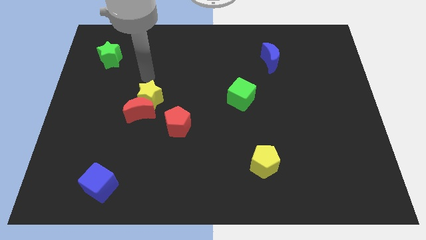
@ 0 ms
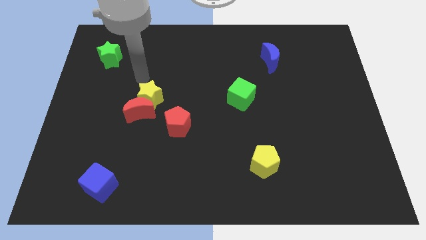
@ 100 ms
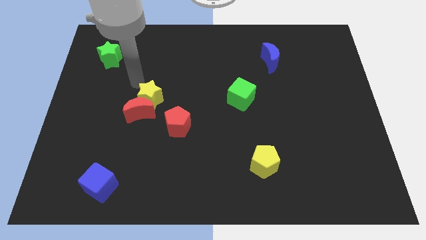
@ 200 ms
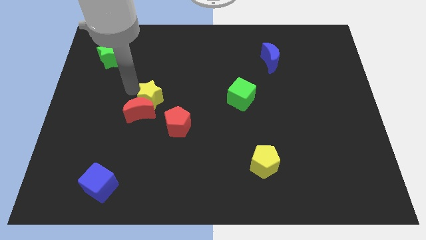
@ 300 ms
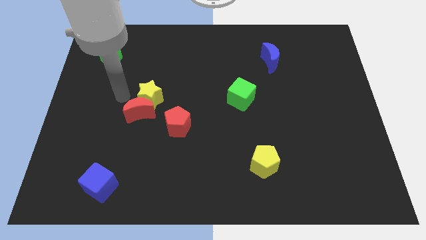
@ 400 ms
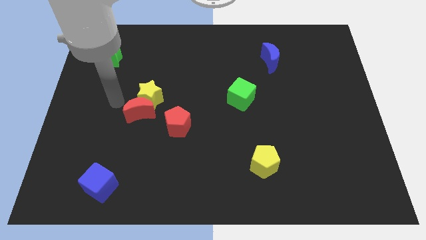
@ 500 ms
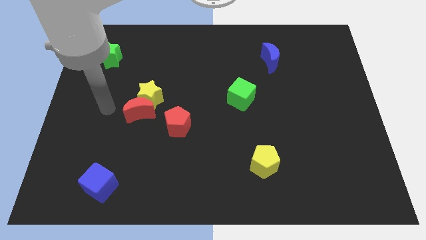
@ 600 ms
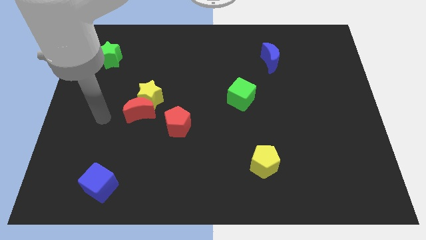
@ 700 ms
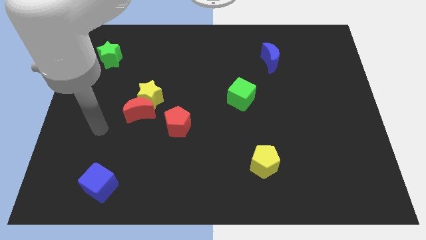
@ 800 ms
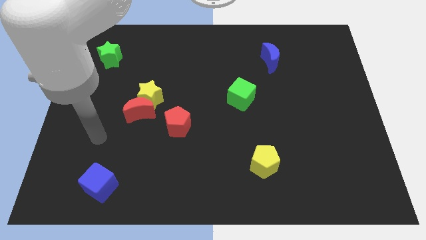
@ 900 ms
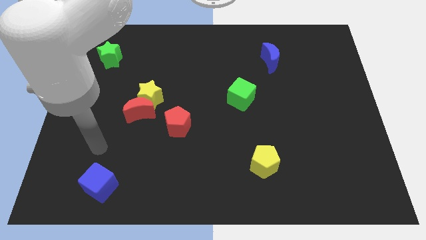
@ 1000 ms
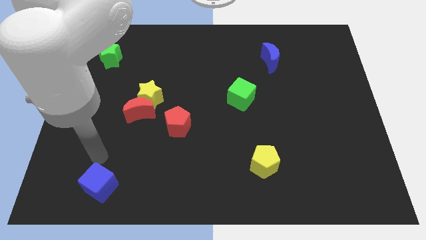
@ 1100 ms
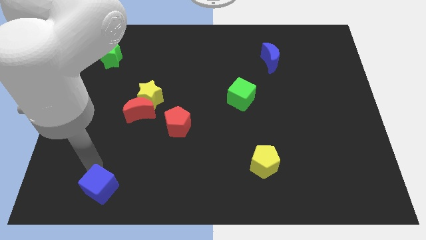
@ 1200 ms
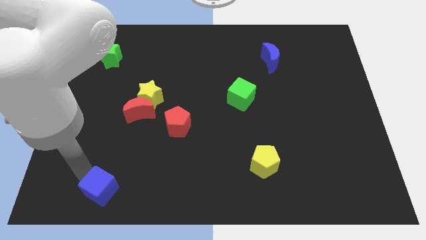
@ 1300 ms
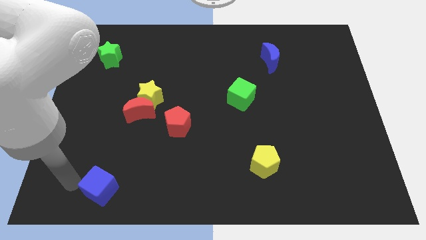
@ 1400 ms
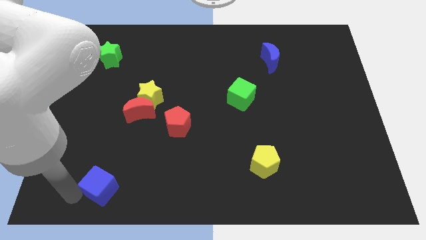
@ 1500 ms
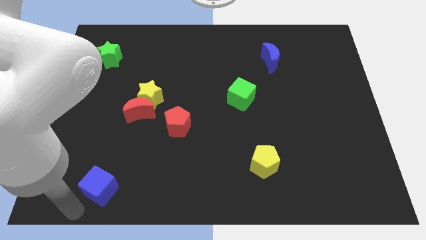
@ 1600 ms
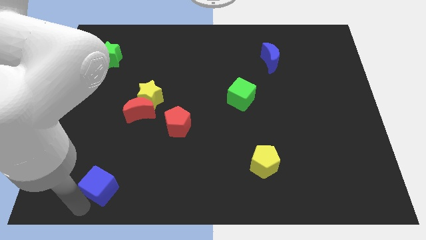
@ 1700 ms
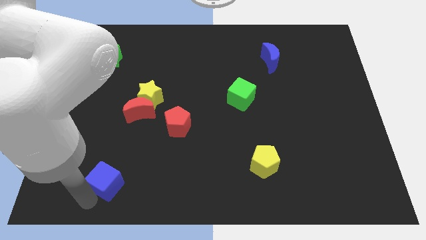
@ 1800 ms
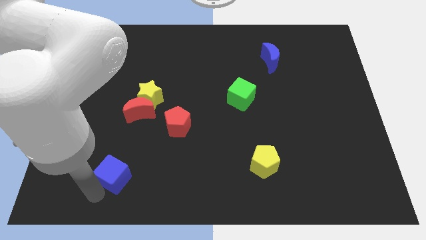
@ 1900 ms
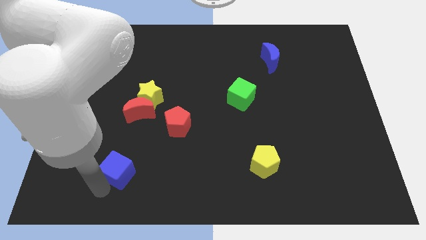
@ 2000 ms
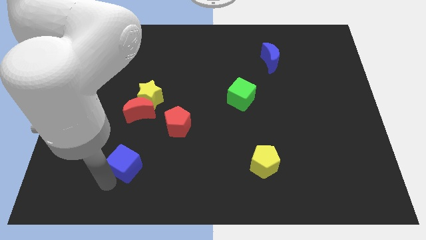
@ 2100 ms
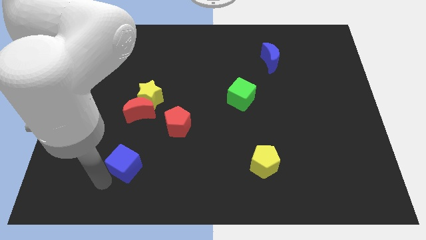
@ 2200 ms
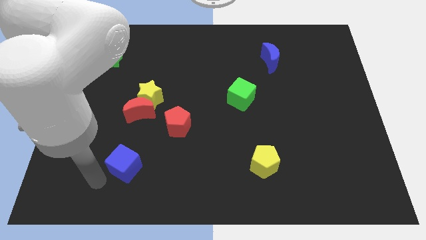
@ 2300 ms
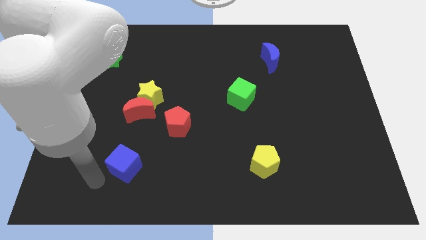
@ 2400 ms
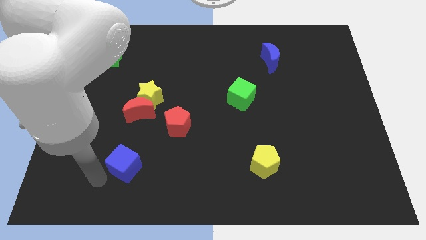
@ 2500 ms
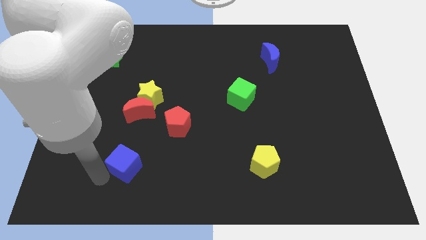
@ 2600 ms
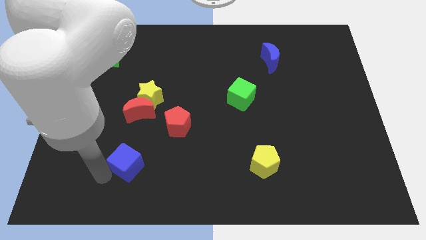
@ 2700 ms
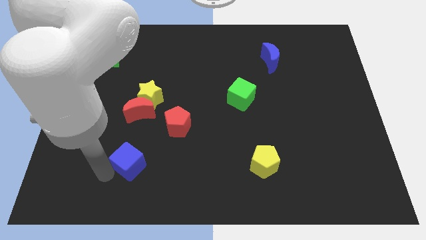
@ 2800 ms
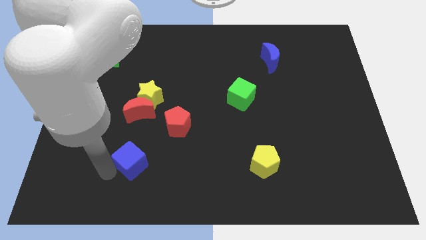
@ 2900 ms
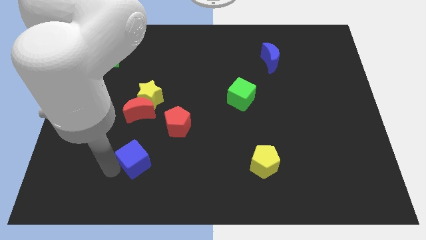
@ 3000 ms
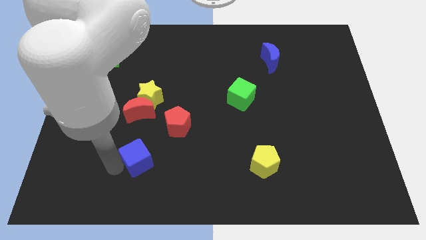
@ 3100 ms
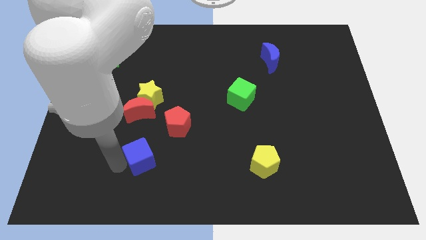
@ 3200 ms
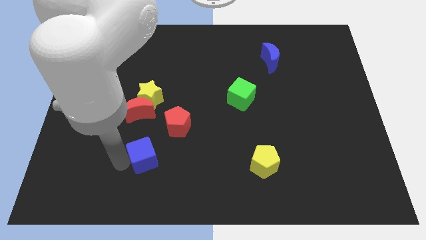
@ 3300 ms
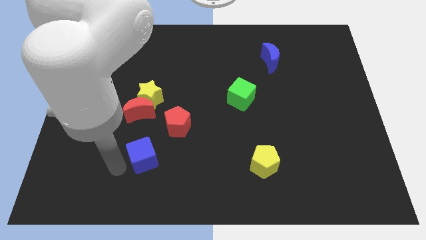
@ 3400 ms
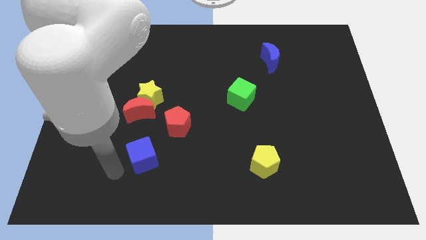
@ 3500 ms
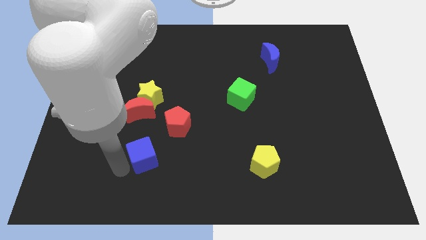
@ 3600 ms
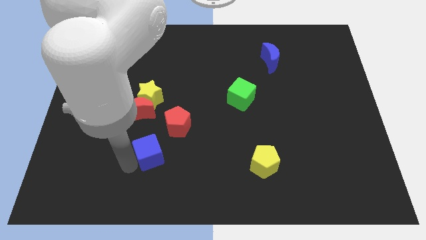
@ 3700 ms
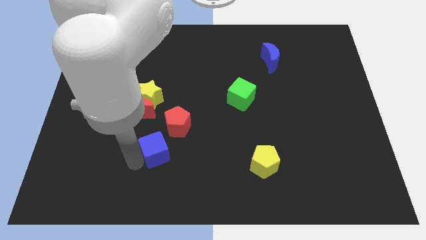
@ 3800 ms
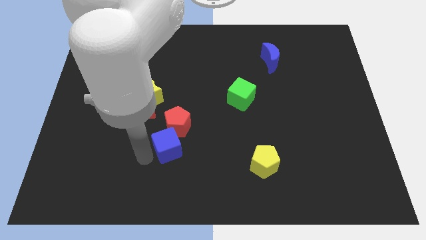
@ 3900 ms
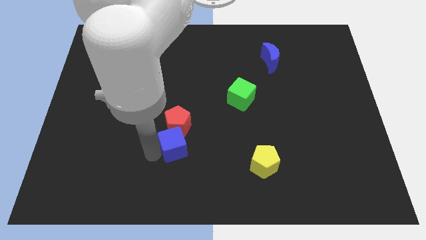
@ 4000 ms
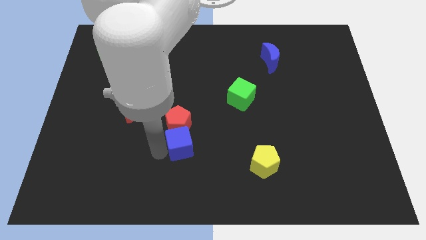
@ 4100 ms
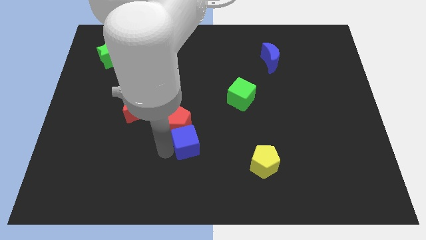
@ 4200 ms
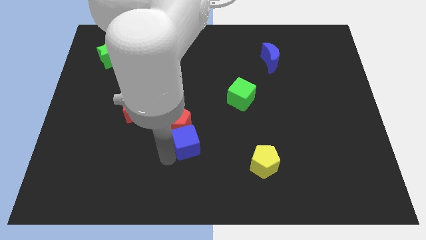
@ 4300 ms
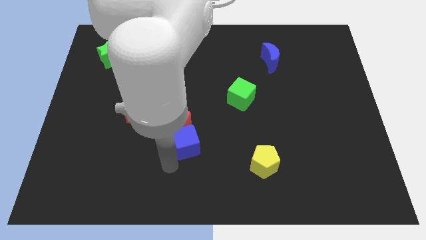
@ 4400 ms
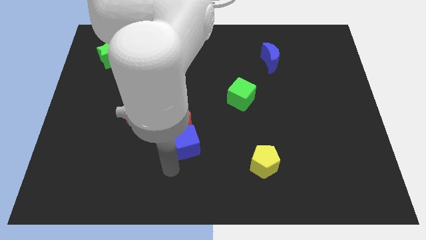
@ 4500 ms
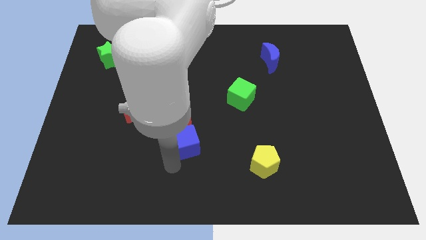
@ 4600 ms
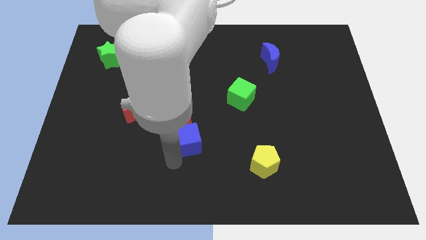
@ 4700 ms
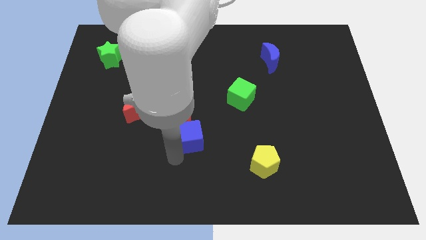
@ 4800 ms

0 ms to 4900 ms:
push the blue cube to the center

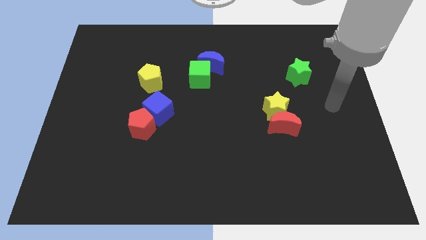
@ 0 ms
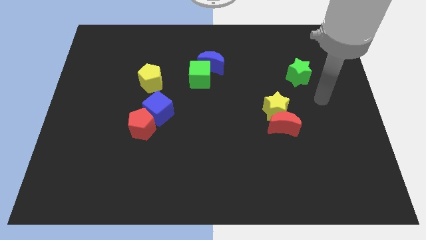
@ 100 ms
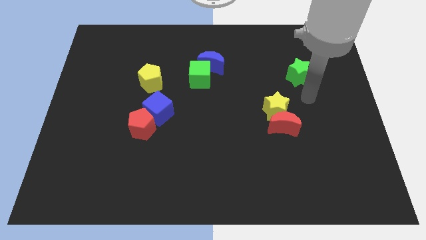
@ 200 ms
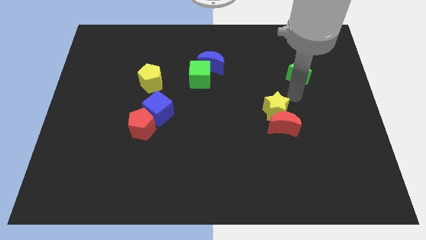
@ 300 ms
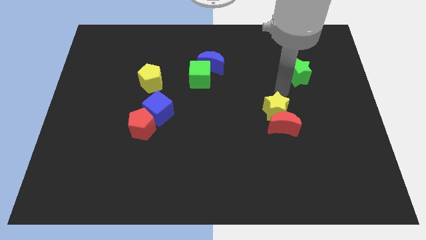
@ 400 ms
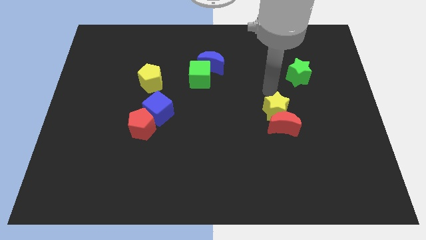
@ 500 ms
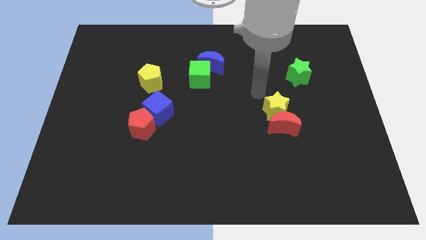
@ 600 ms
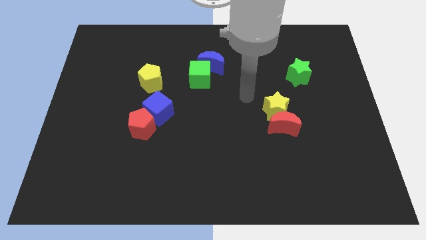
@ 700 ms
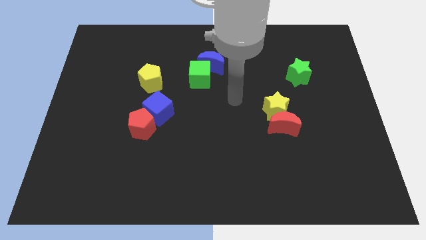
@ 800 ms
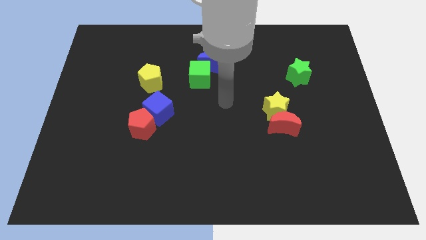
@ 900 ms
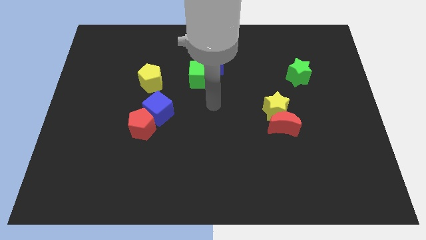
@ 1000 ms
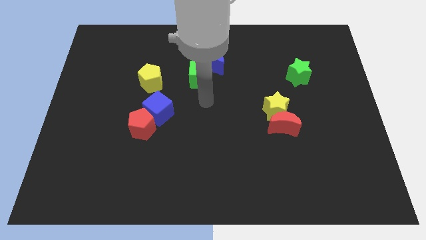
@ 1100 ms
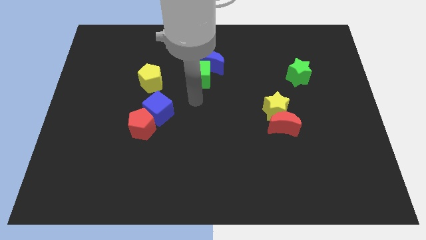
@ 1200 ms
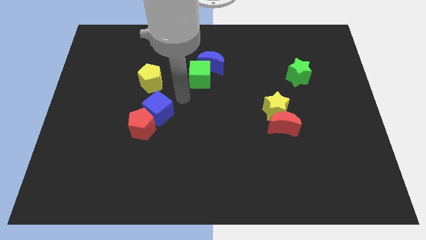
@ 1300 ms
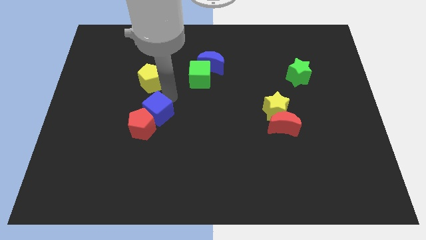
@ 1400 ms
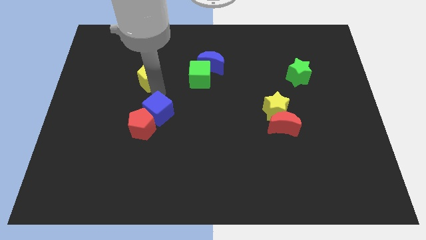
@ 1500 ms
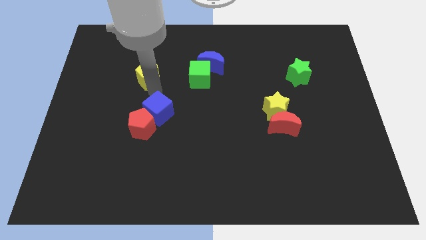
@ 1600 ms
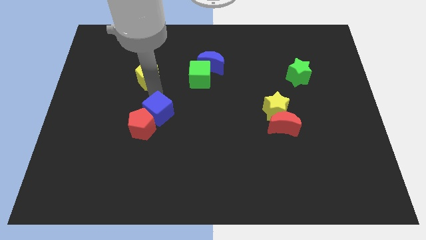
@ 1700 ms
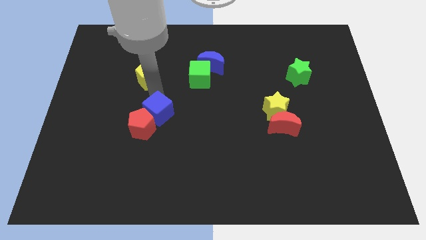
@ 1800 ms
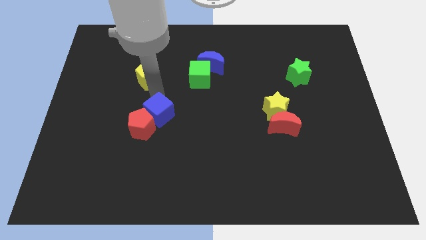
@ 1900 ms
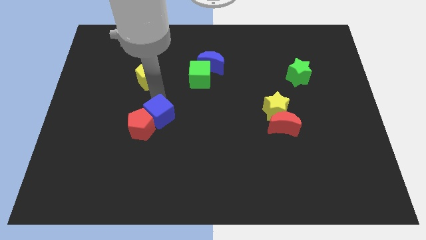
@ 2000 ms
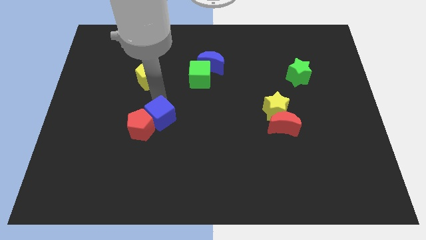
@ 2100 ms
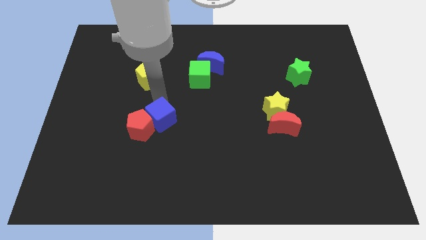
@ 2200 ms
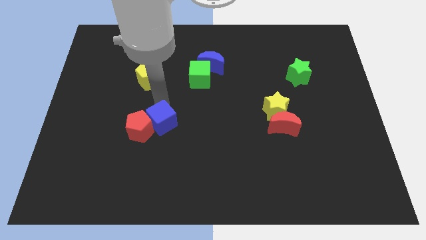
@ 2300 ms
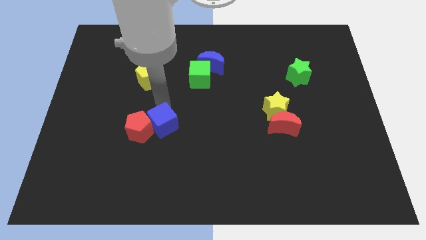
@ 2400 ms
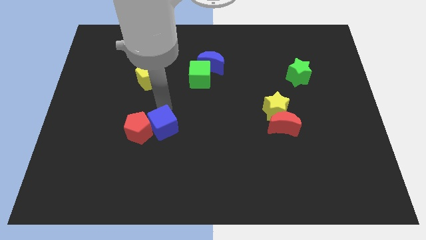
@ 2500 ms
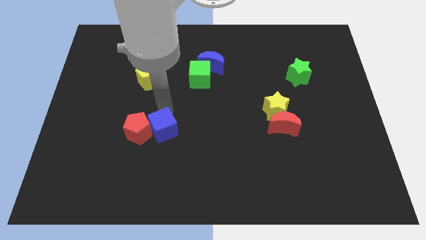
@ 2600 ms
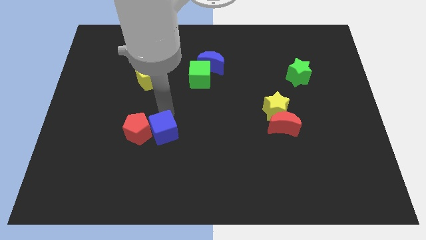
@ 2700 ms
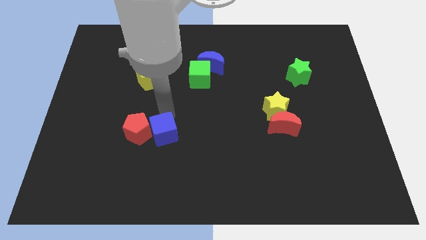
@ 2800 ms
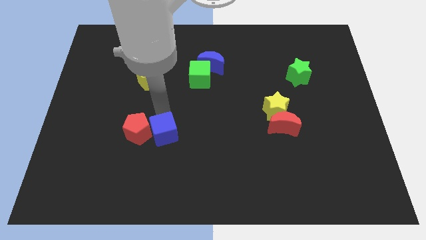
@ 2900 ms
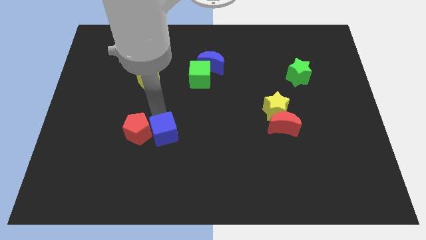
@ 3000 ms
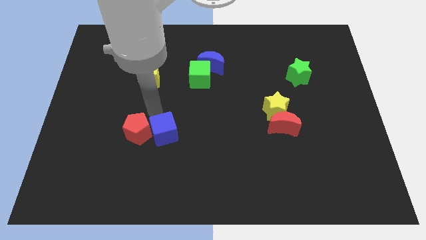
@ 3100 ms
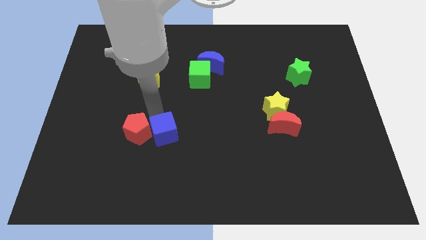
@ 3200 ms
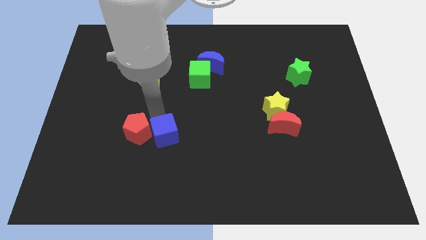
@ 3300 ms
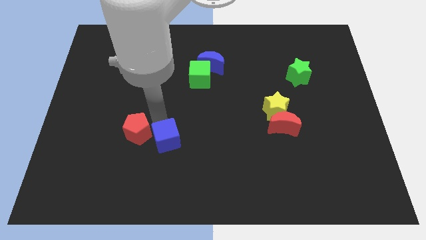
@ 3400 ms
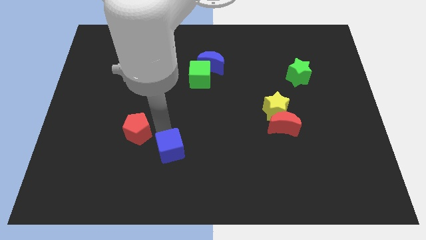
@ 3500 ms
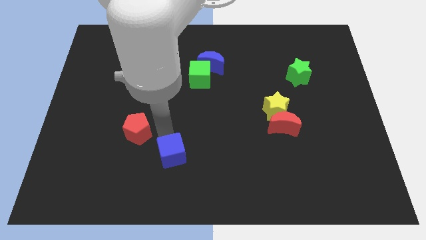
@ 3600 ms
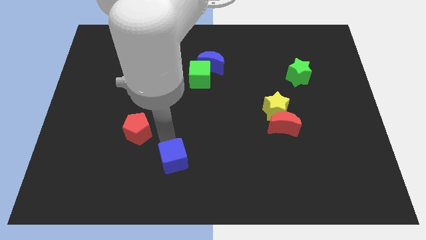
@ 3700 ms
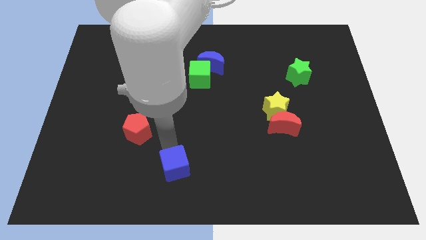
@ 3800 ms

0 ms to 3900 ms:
push the blue cube to the bottom
